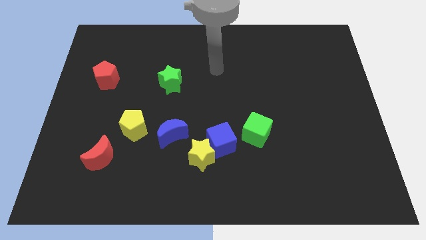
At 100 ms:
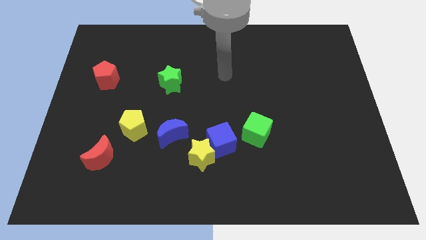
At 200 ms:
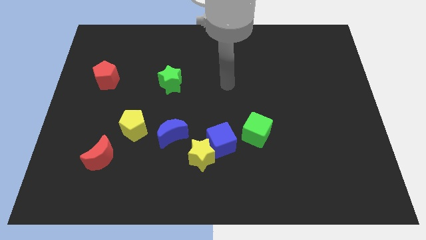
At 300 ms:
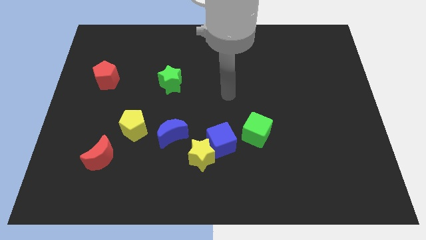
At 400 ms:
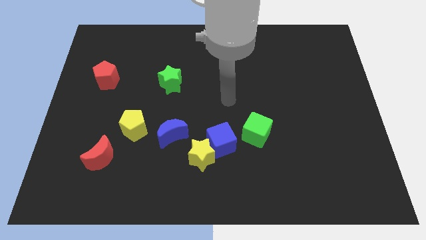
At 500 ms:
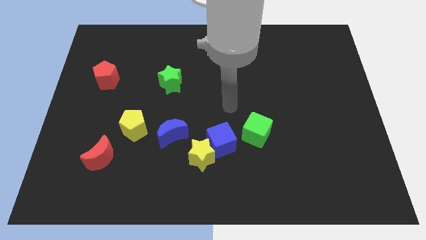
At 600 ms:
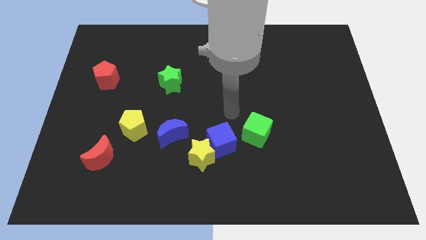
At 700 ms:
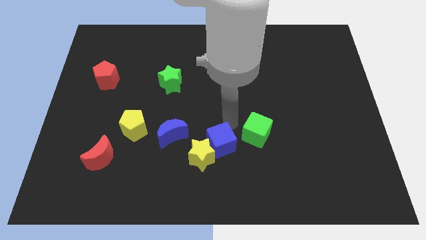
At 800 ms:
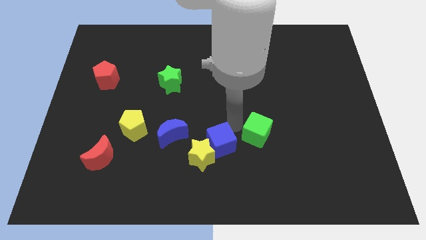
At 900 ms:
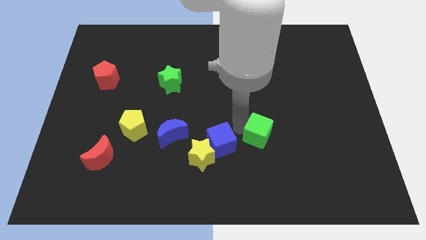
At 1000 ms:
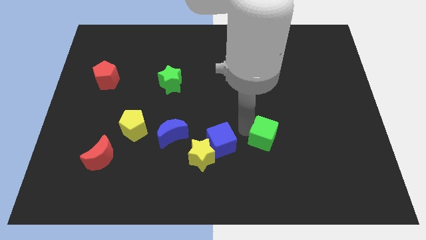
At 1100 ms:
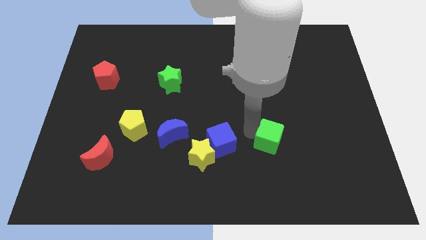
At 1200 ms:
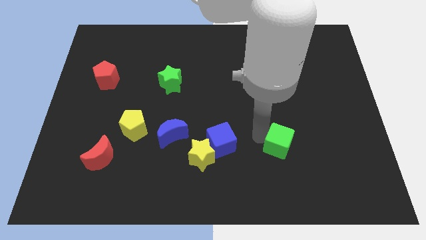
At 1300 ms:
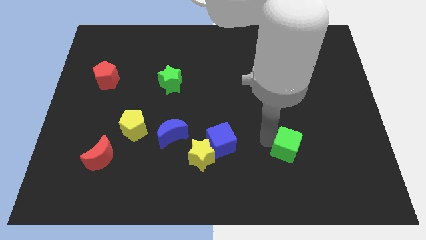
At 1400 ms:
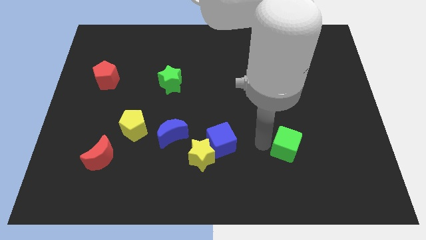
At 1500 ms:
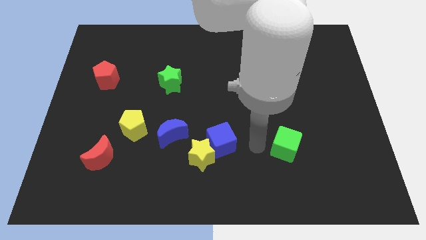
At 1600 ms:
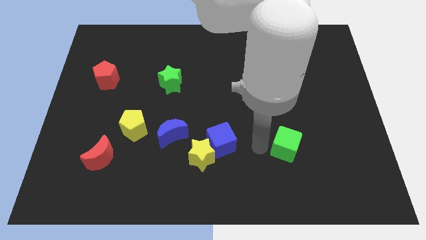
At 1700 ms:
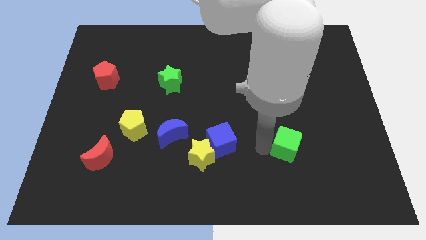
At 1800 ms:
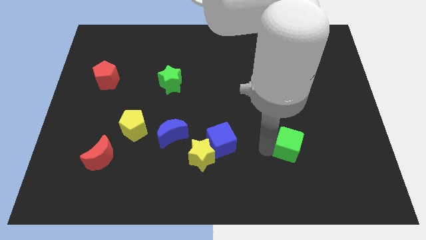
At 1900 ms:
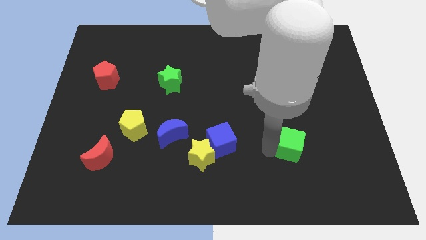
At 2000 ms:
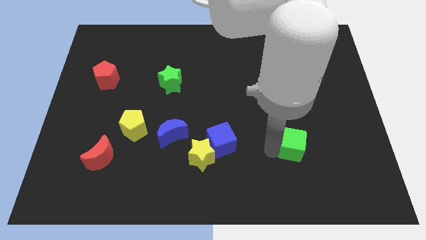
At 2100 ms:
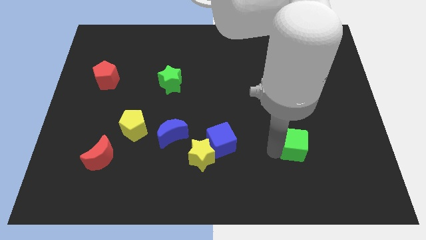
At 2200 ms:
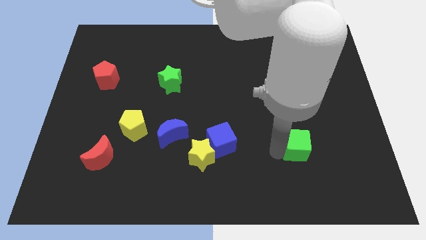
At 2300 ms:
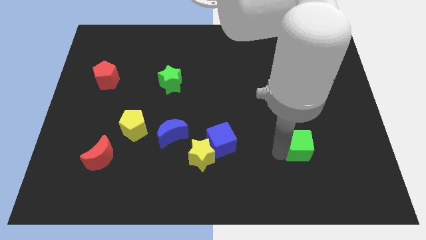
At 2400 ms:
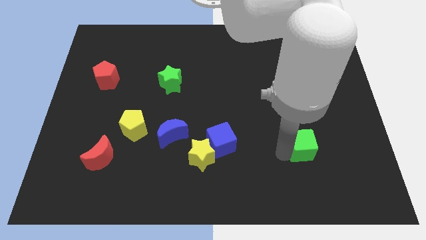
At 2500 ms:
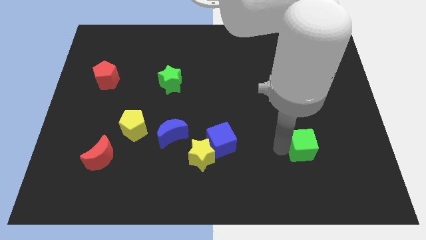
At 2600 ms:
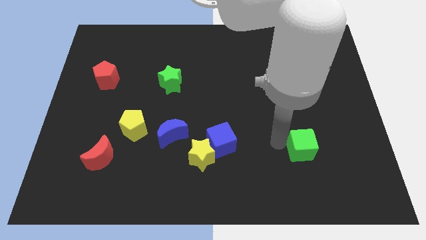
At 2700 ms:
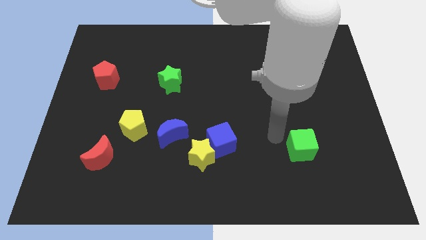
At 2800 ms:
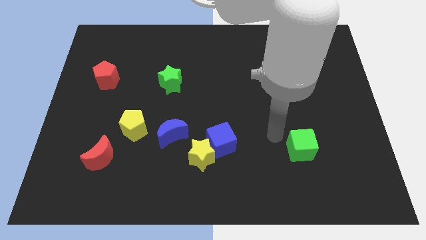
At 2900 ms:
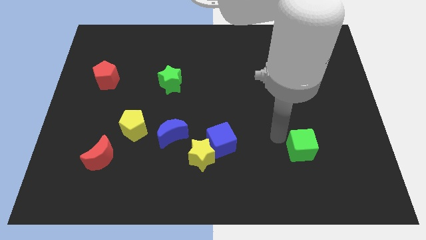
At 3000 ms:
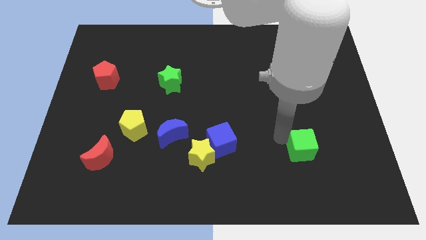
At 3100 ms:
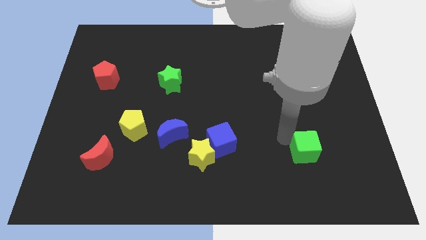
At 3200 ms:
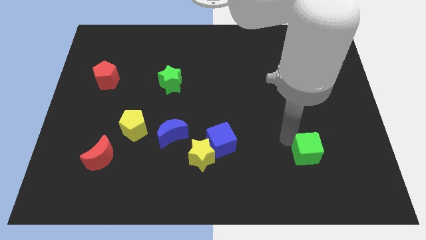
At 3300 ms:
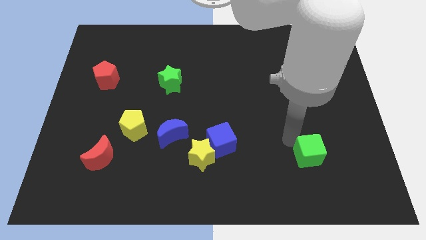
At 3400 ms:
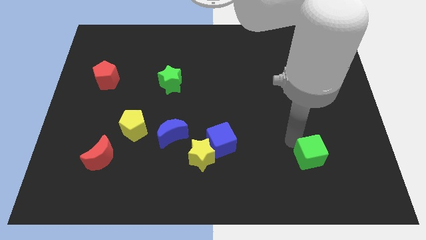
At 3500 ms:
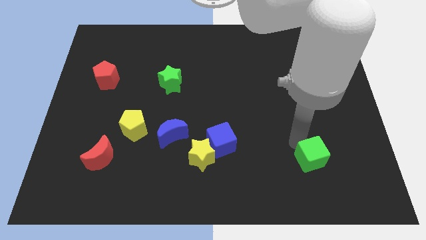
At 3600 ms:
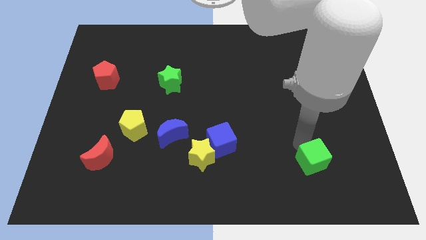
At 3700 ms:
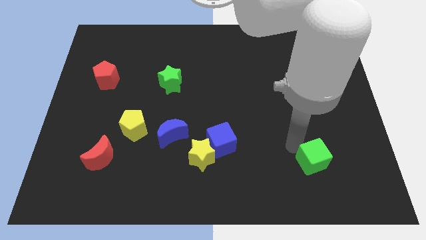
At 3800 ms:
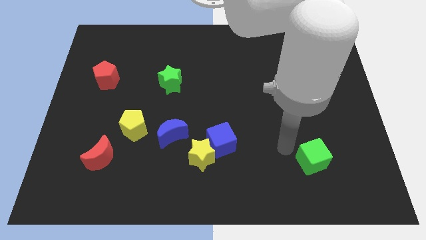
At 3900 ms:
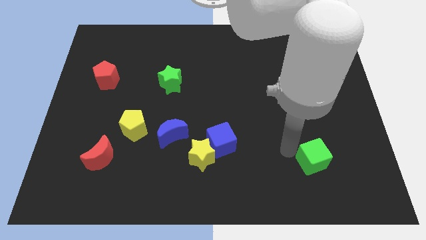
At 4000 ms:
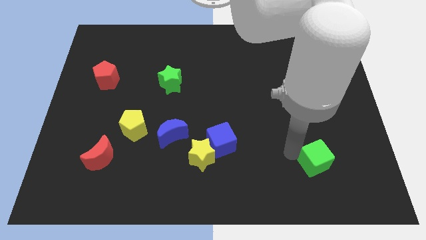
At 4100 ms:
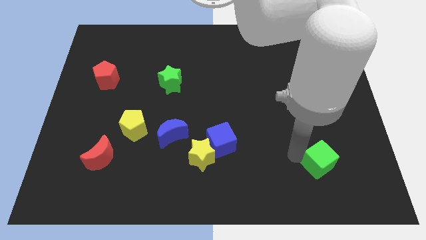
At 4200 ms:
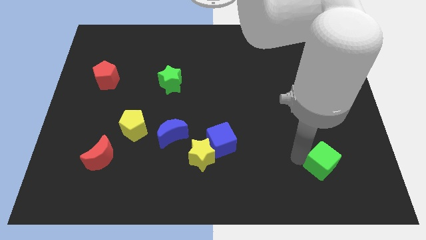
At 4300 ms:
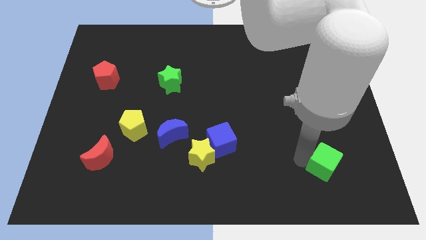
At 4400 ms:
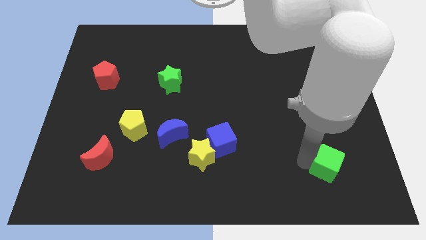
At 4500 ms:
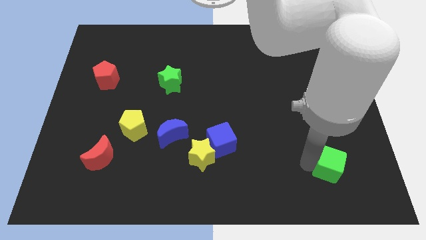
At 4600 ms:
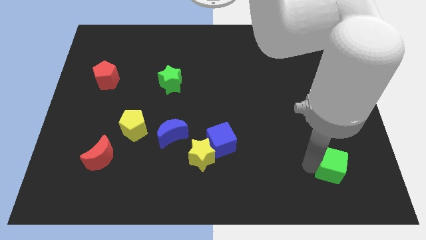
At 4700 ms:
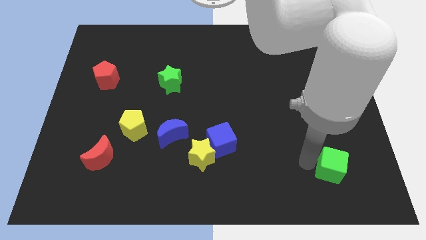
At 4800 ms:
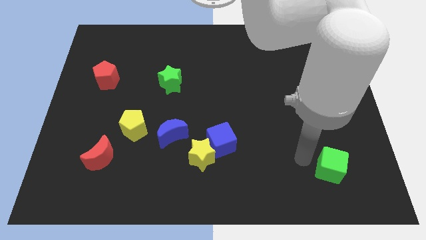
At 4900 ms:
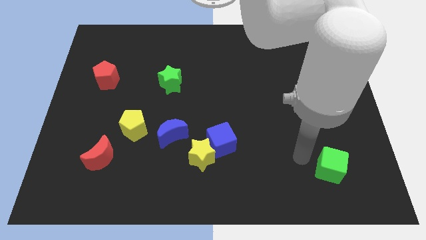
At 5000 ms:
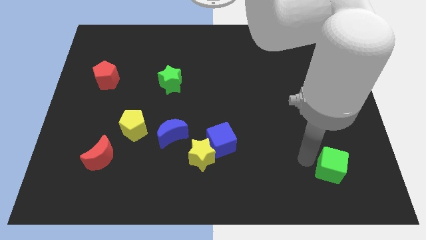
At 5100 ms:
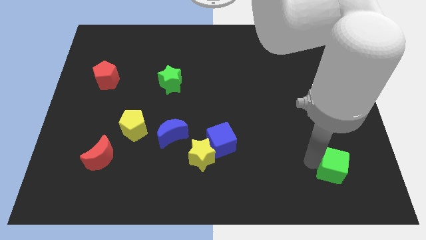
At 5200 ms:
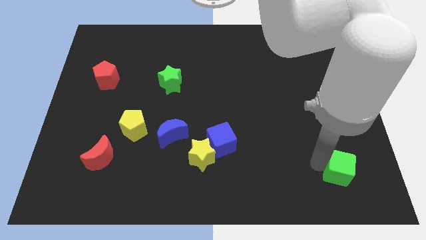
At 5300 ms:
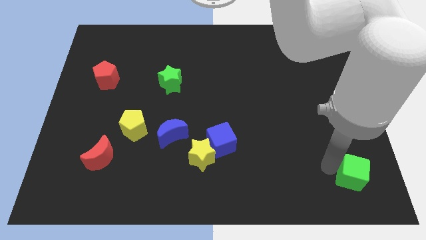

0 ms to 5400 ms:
slide the green cube to the bottom right
